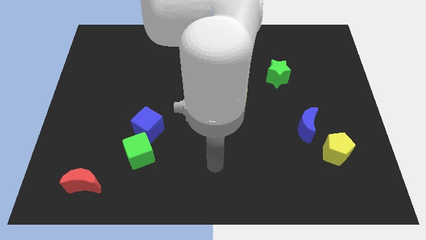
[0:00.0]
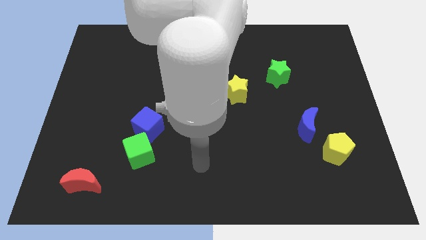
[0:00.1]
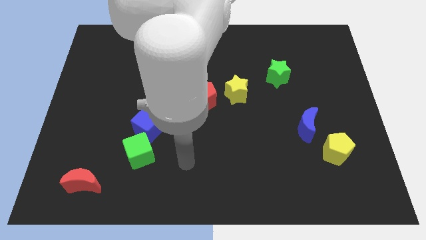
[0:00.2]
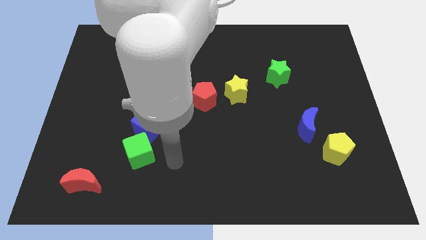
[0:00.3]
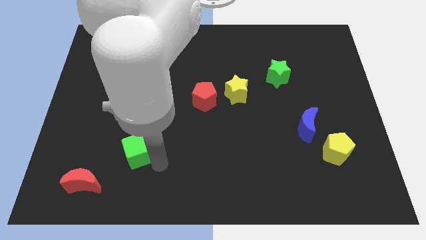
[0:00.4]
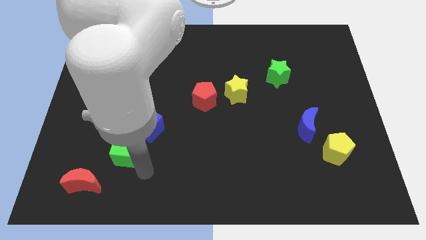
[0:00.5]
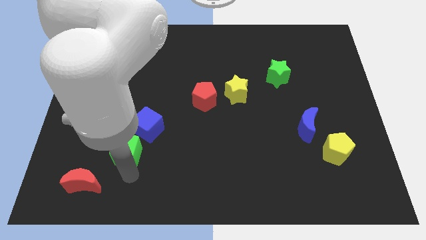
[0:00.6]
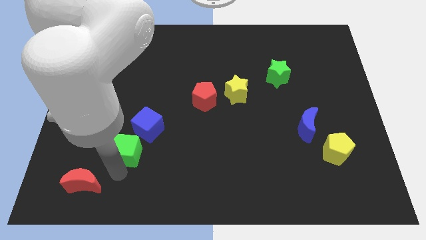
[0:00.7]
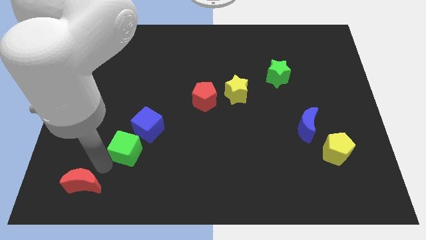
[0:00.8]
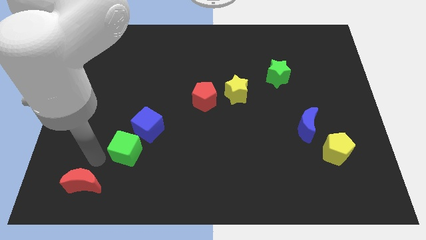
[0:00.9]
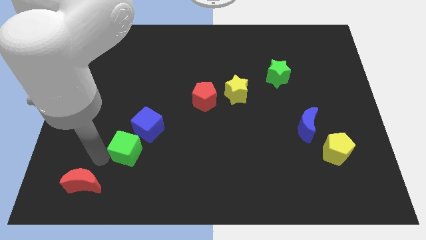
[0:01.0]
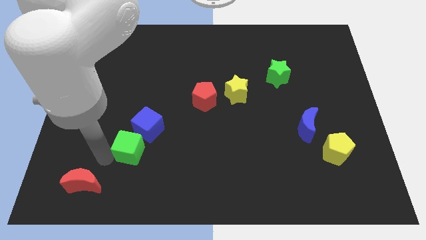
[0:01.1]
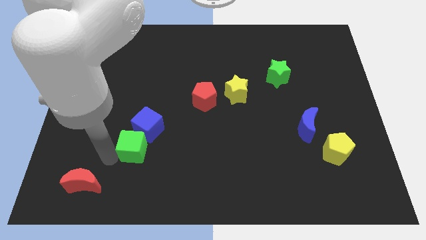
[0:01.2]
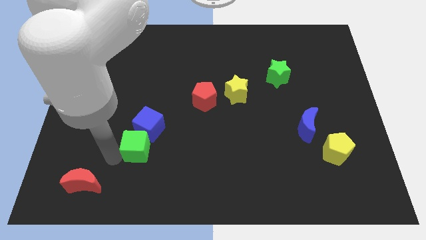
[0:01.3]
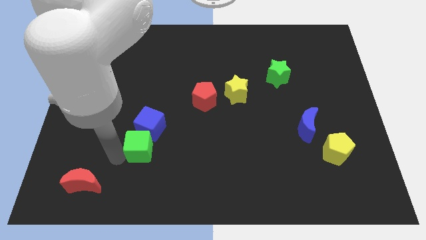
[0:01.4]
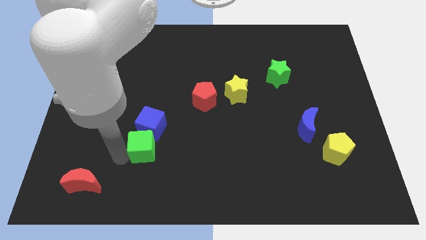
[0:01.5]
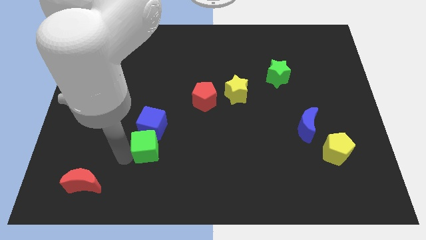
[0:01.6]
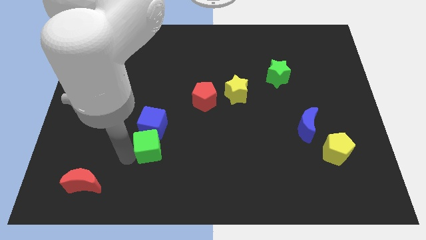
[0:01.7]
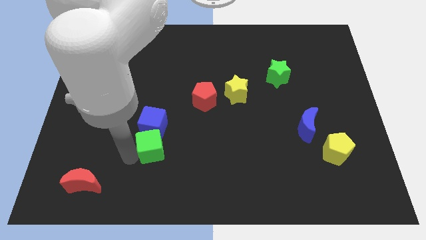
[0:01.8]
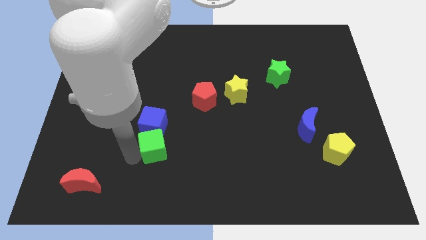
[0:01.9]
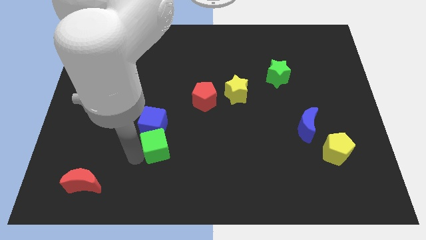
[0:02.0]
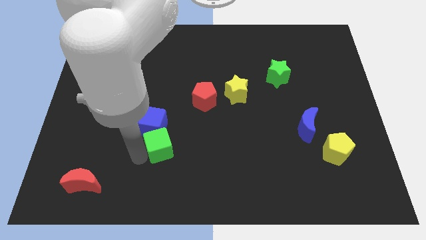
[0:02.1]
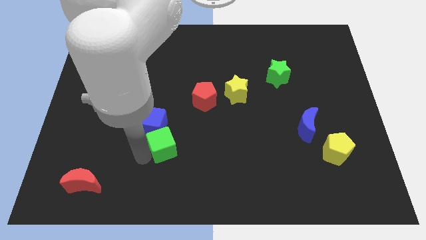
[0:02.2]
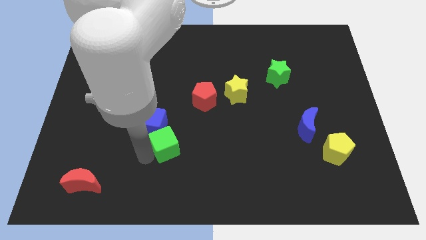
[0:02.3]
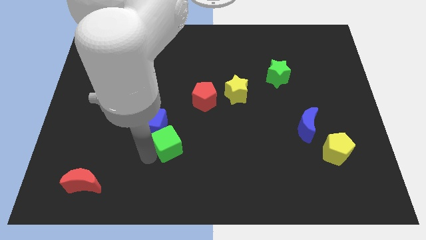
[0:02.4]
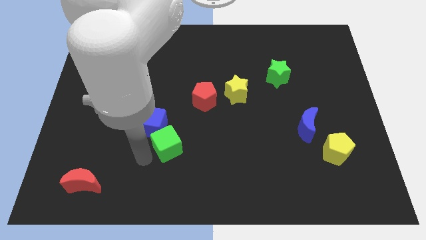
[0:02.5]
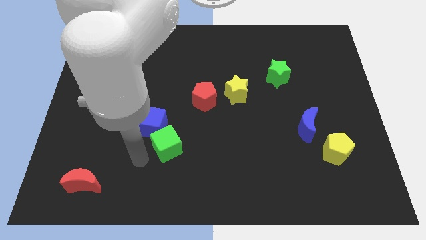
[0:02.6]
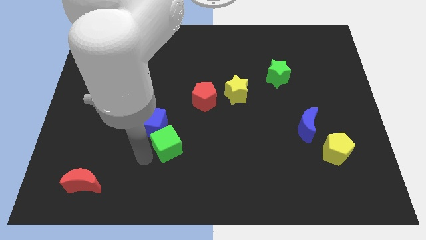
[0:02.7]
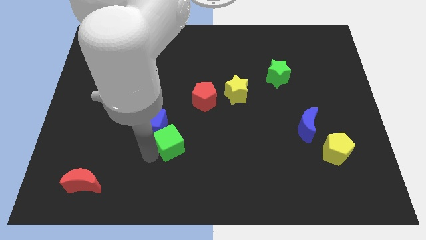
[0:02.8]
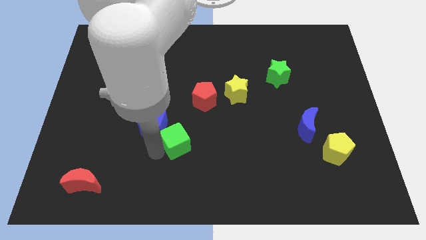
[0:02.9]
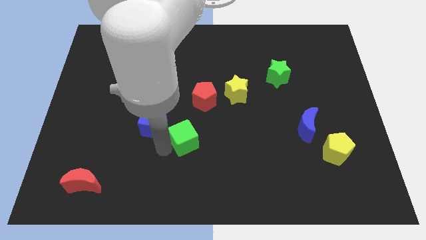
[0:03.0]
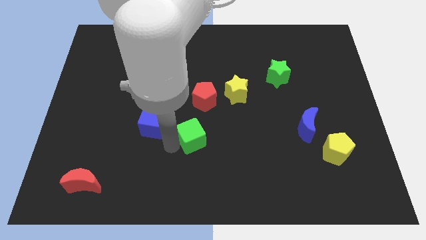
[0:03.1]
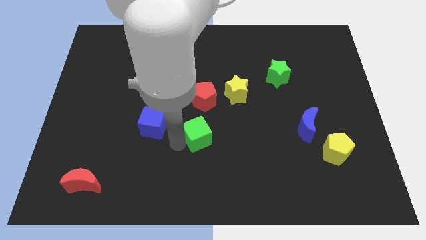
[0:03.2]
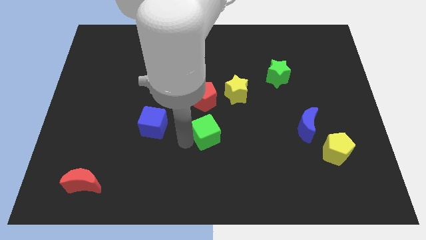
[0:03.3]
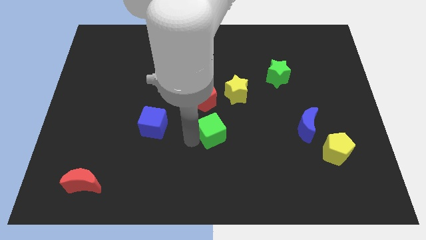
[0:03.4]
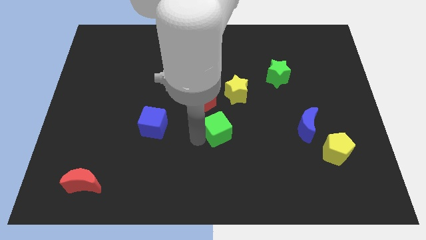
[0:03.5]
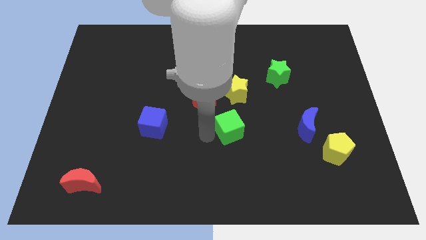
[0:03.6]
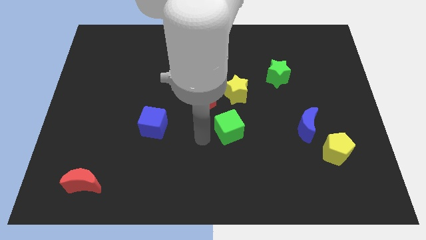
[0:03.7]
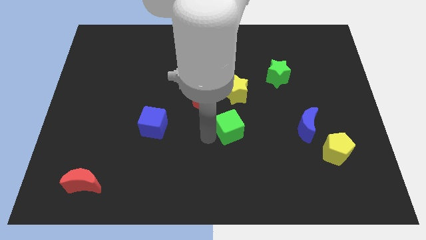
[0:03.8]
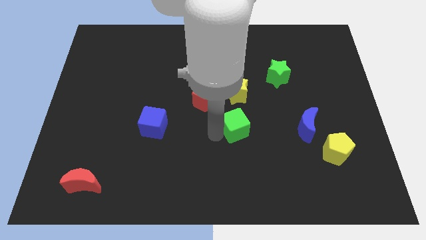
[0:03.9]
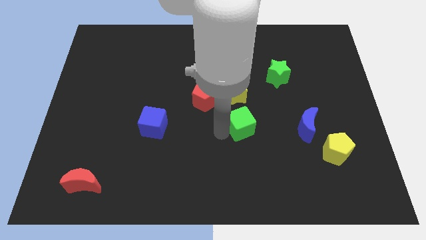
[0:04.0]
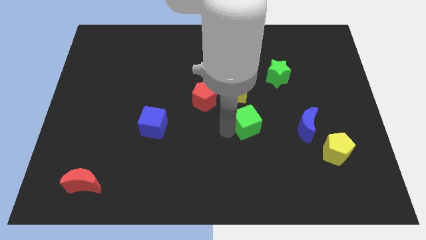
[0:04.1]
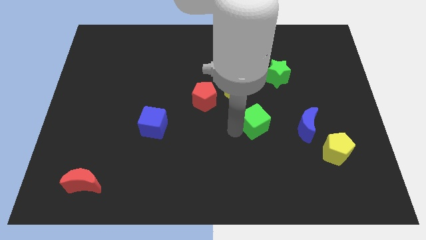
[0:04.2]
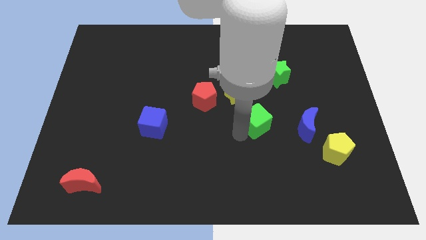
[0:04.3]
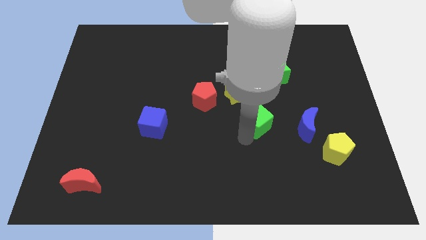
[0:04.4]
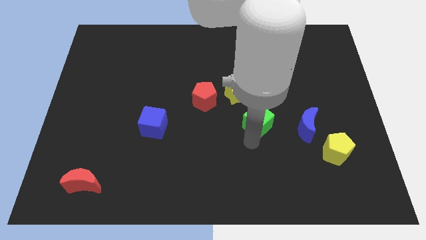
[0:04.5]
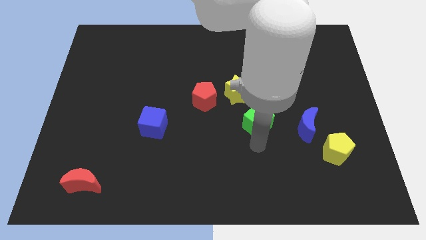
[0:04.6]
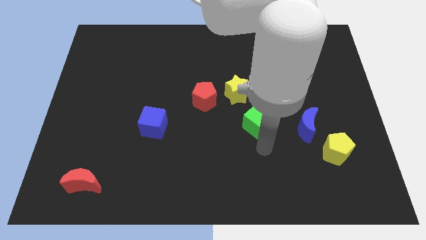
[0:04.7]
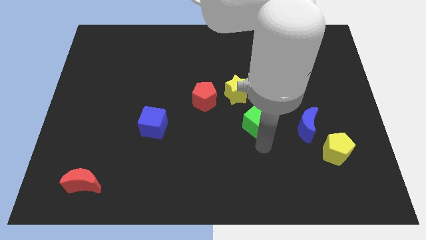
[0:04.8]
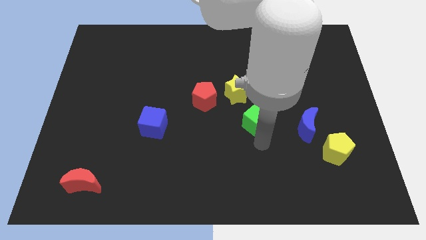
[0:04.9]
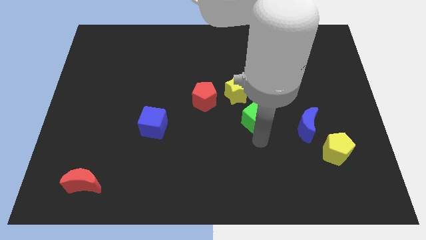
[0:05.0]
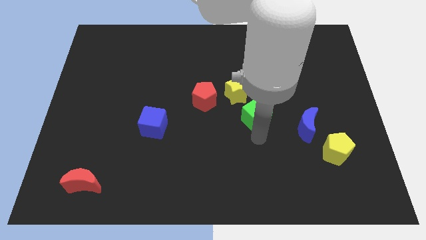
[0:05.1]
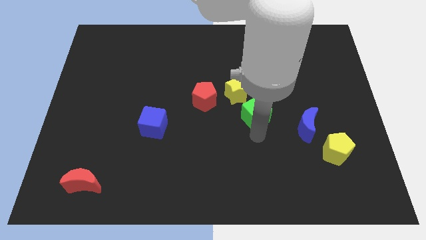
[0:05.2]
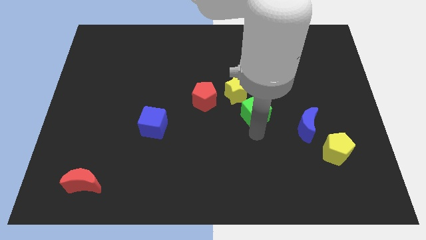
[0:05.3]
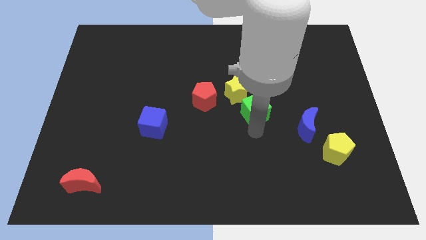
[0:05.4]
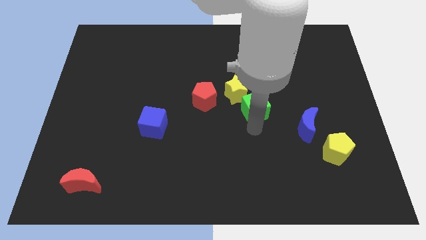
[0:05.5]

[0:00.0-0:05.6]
slide the green cube to the bottom left side of the green star

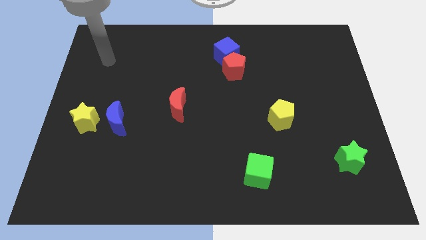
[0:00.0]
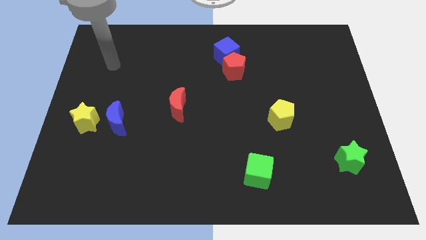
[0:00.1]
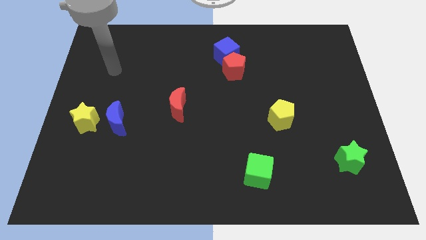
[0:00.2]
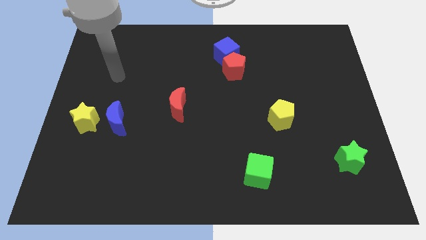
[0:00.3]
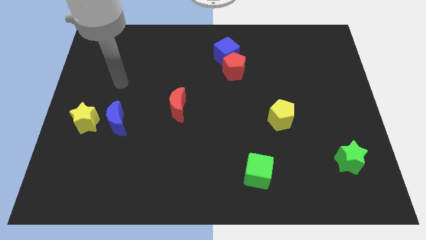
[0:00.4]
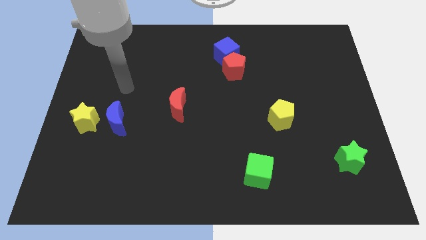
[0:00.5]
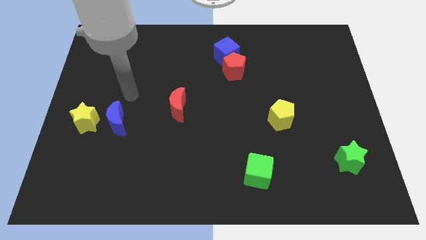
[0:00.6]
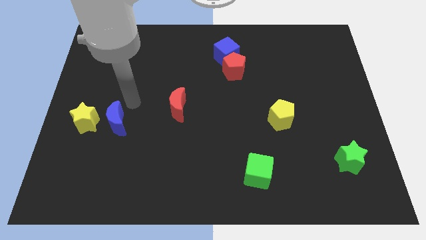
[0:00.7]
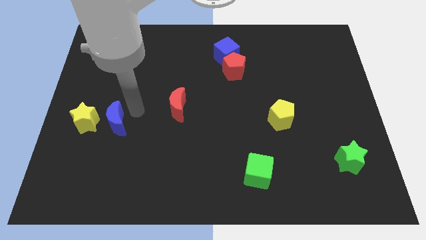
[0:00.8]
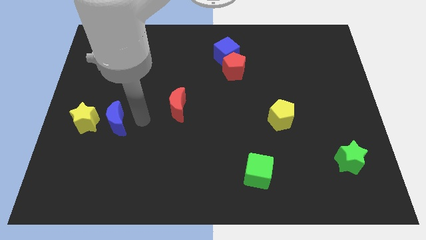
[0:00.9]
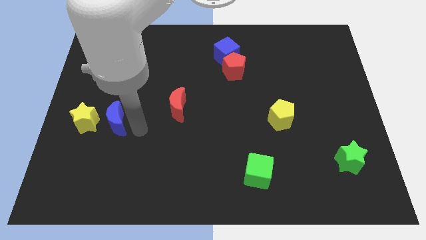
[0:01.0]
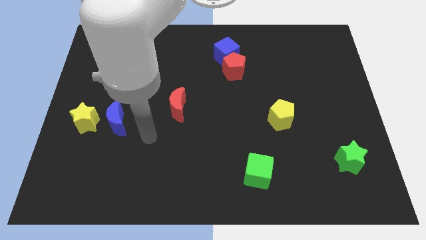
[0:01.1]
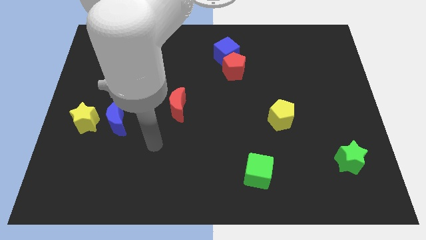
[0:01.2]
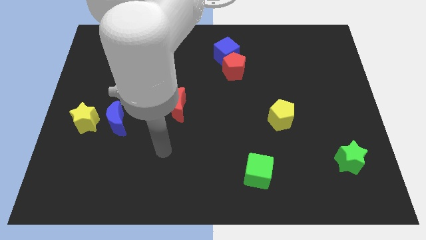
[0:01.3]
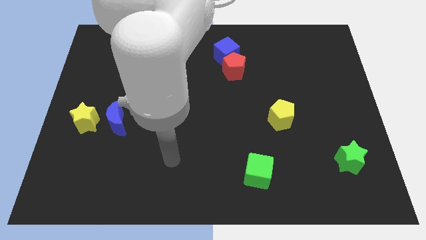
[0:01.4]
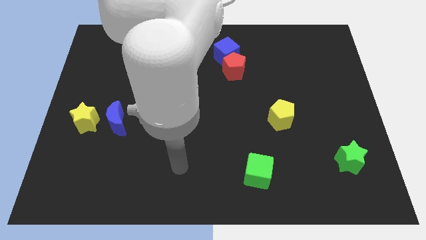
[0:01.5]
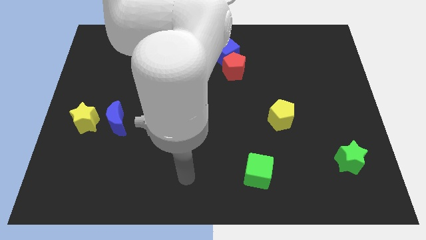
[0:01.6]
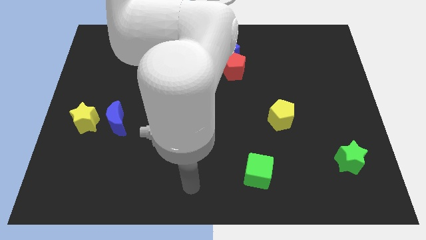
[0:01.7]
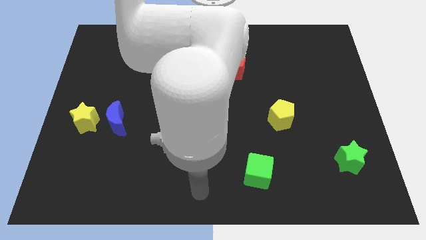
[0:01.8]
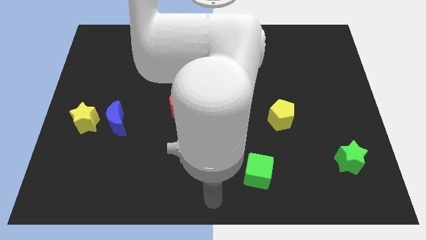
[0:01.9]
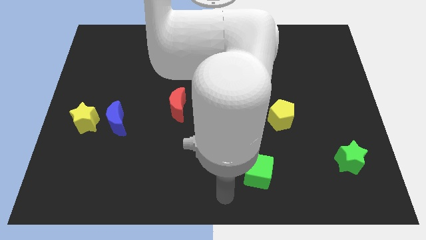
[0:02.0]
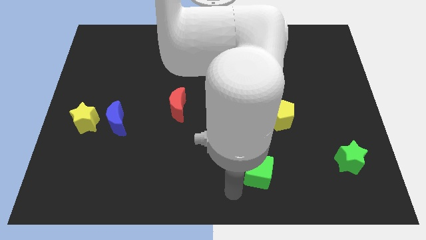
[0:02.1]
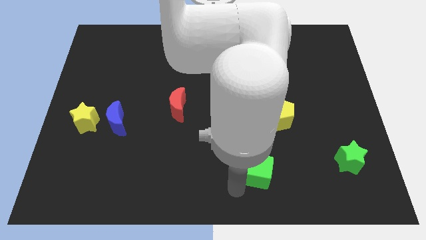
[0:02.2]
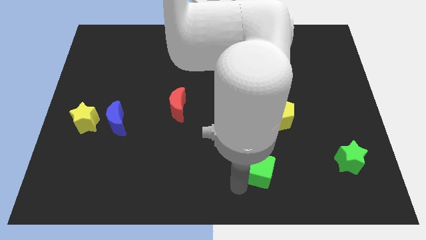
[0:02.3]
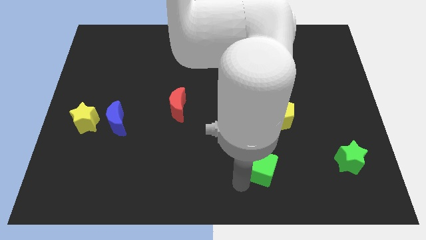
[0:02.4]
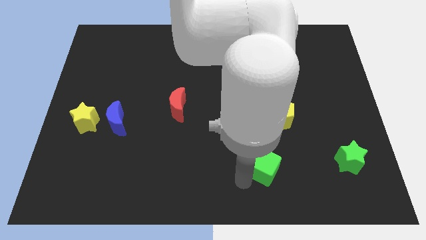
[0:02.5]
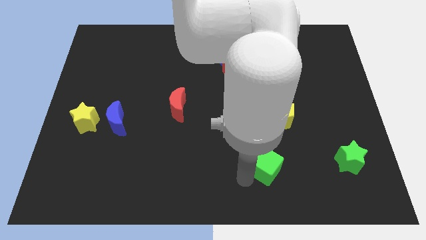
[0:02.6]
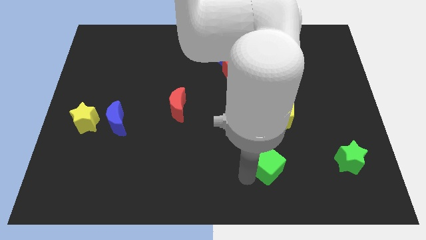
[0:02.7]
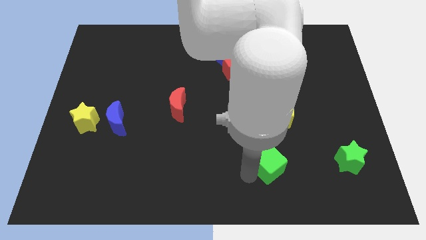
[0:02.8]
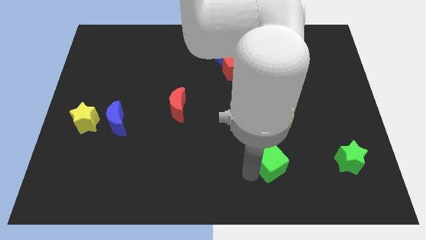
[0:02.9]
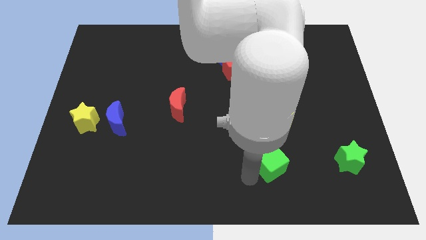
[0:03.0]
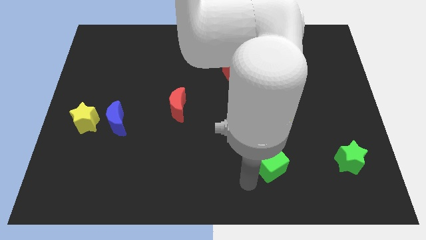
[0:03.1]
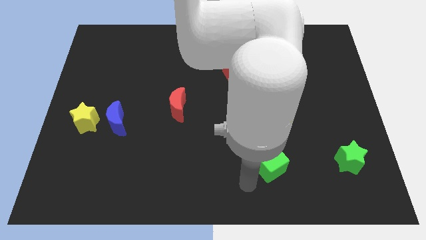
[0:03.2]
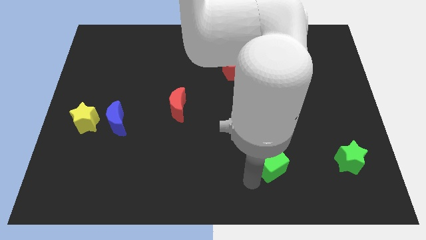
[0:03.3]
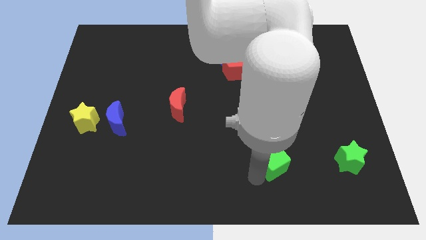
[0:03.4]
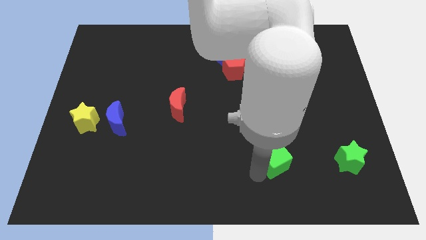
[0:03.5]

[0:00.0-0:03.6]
slide the green cube just left of the green star
